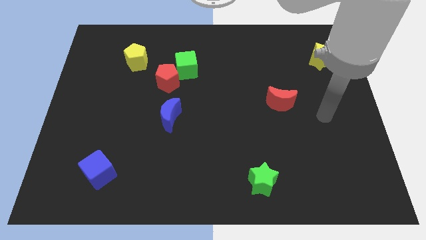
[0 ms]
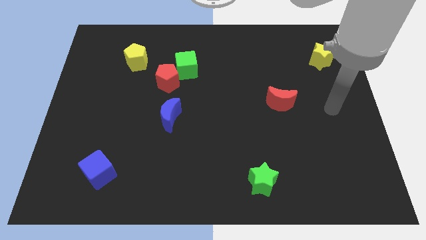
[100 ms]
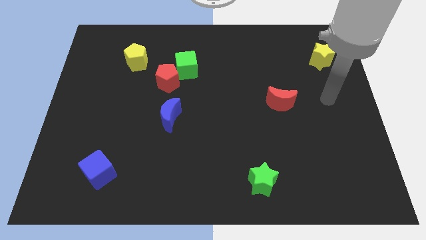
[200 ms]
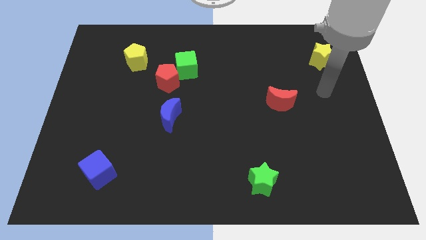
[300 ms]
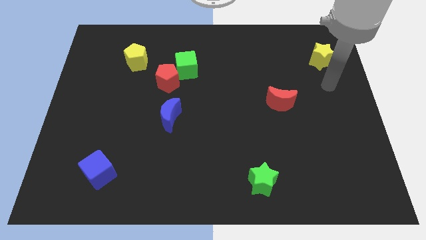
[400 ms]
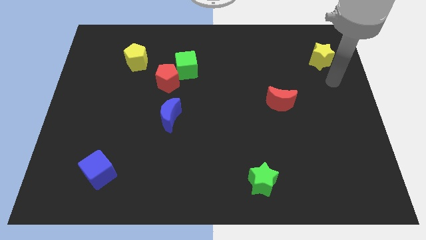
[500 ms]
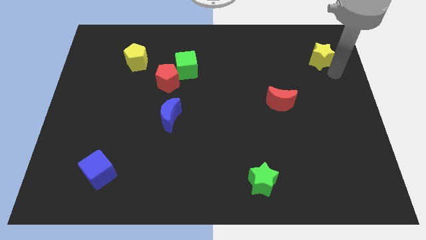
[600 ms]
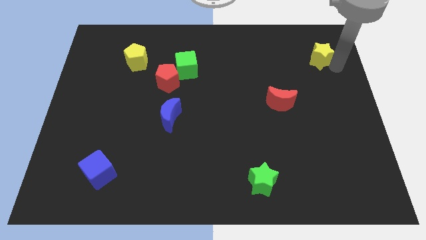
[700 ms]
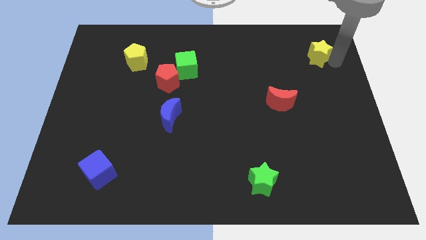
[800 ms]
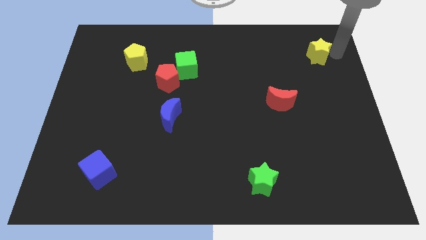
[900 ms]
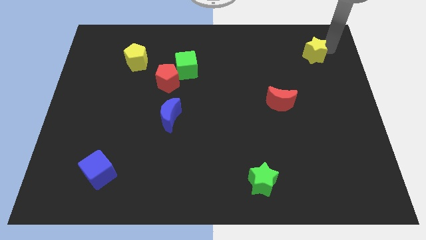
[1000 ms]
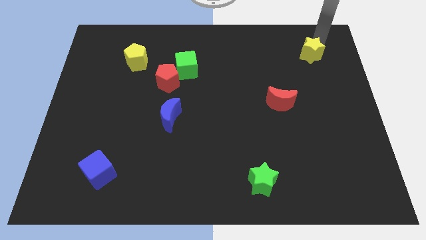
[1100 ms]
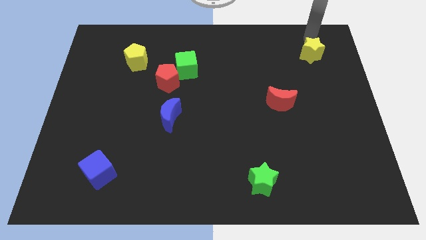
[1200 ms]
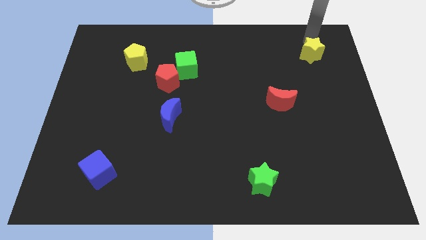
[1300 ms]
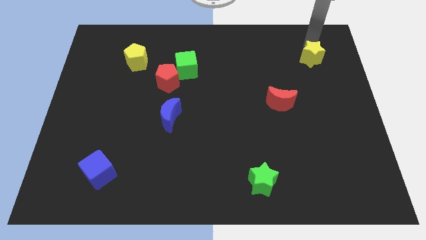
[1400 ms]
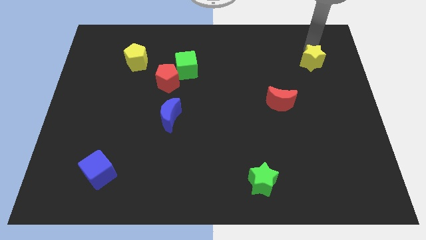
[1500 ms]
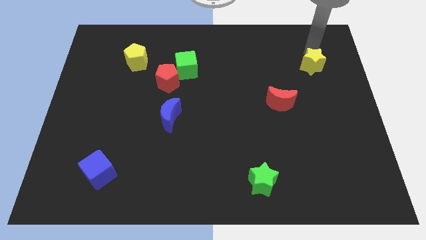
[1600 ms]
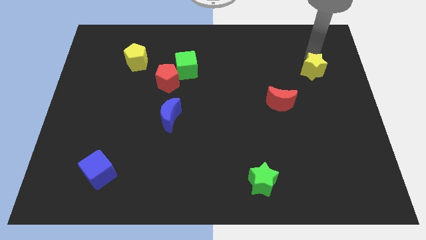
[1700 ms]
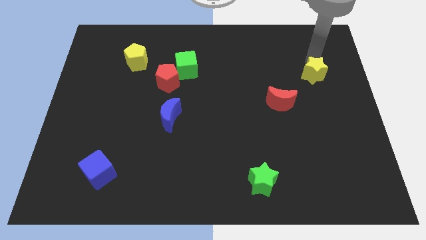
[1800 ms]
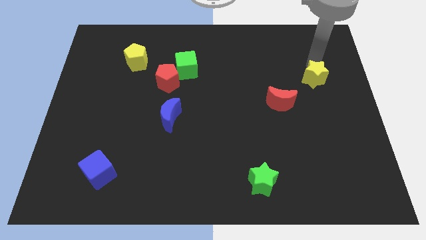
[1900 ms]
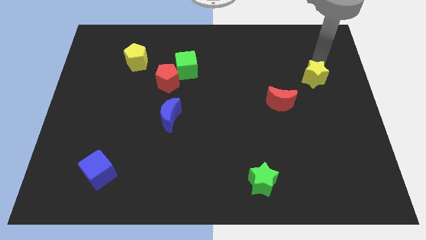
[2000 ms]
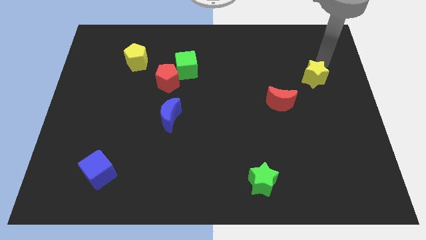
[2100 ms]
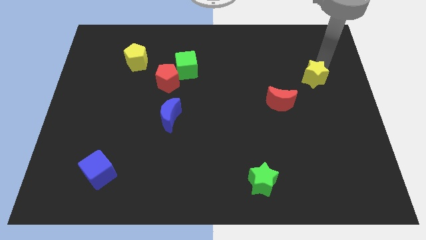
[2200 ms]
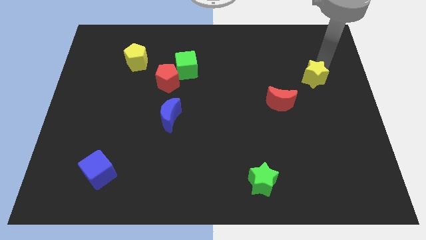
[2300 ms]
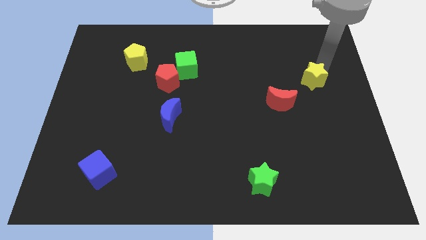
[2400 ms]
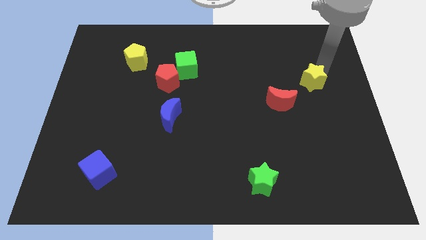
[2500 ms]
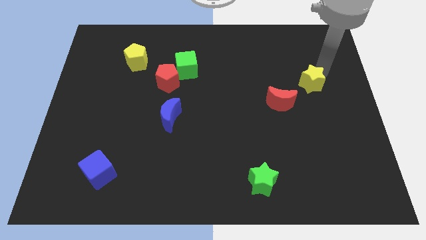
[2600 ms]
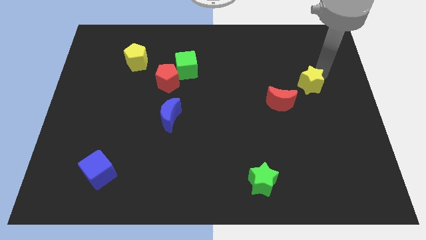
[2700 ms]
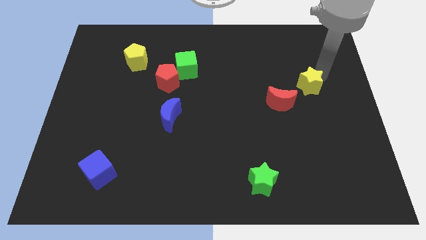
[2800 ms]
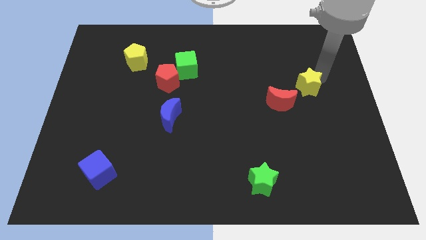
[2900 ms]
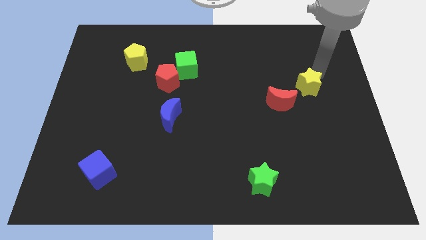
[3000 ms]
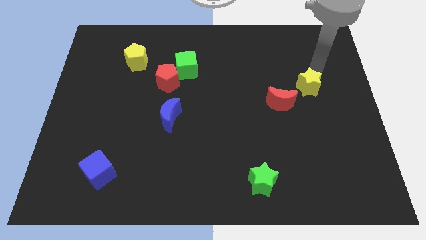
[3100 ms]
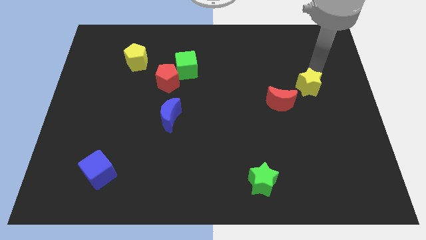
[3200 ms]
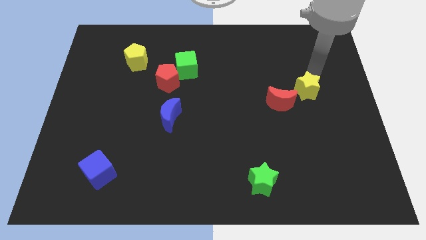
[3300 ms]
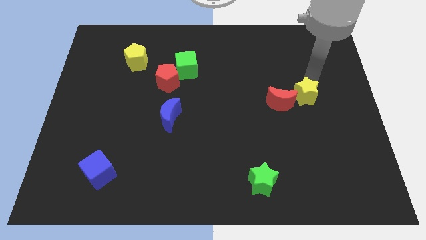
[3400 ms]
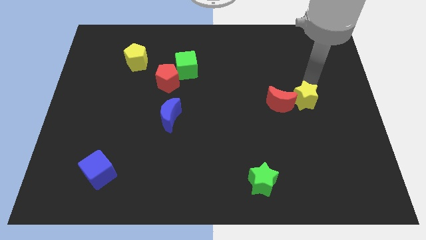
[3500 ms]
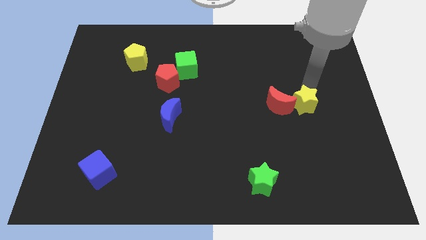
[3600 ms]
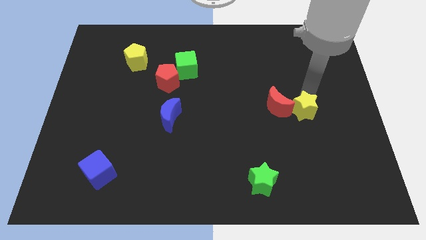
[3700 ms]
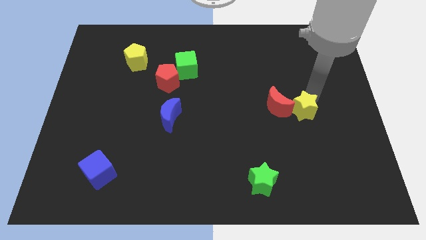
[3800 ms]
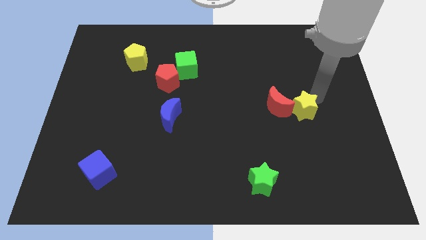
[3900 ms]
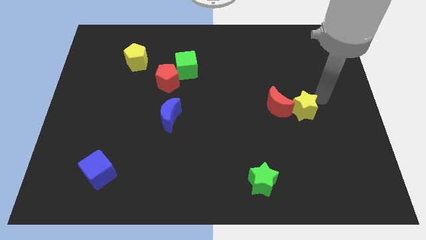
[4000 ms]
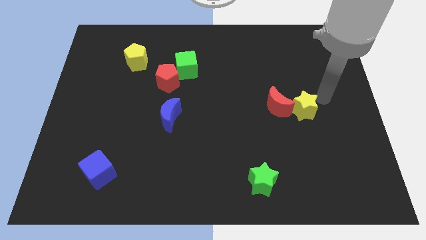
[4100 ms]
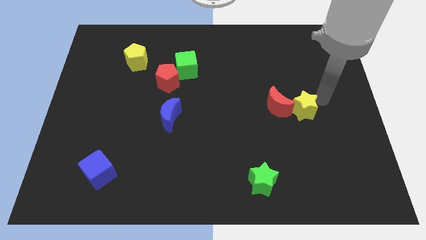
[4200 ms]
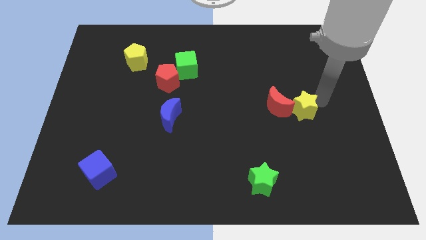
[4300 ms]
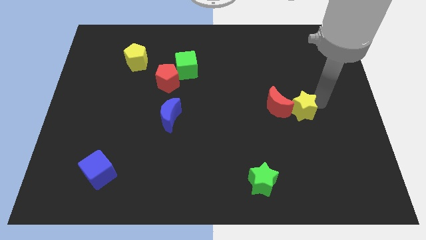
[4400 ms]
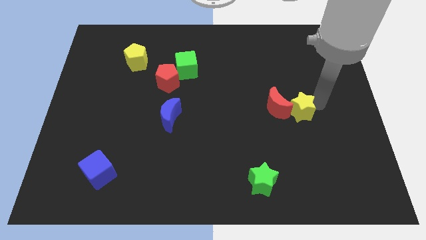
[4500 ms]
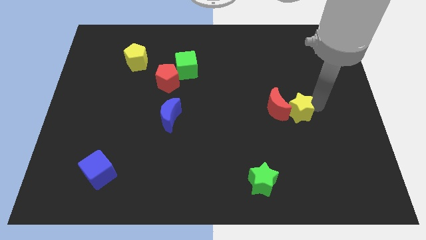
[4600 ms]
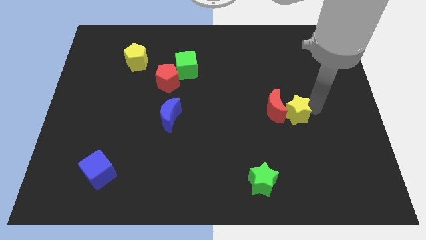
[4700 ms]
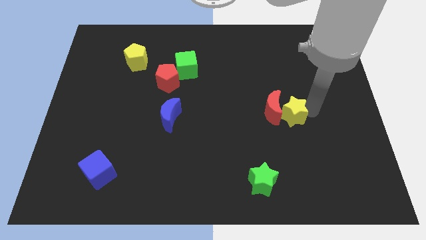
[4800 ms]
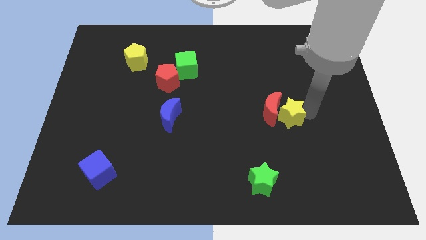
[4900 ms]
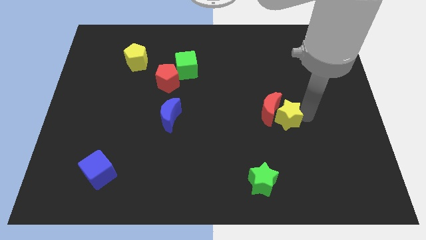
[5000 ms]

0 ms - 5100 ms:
push the yellow star to the bottom side of the red moon

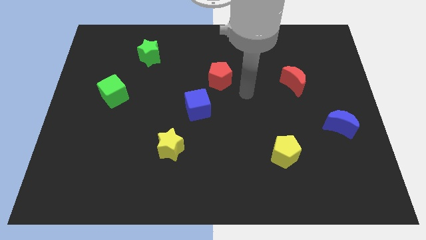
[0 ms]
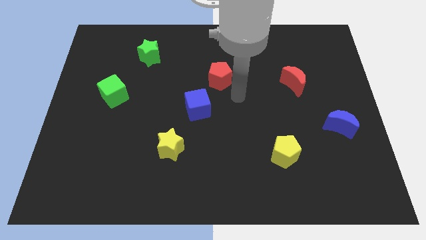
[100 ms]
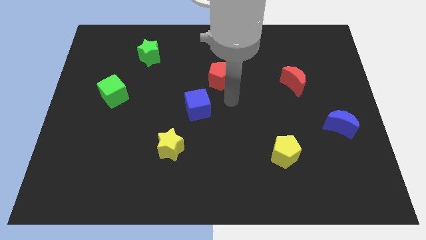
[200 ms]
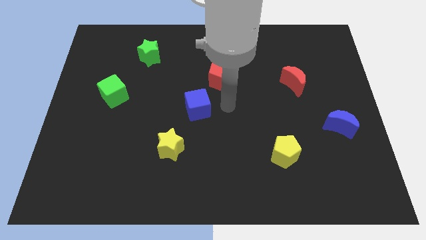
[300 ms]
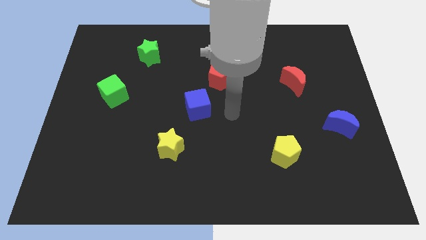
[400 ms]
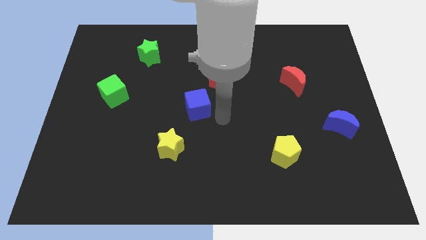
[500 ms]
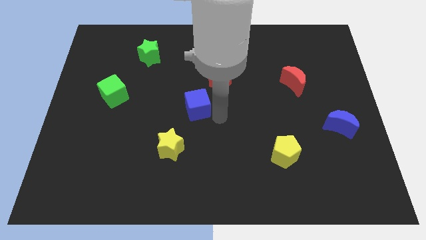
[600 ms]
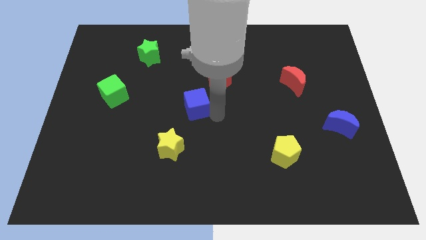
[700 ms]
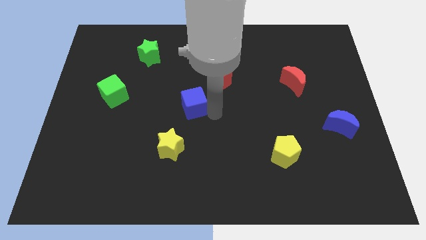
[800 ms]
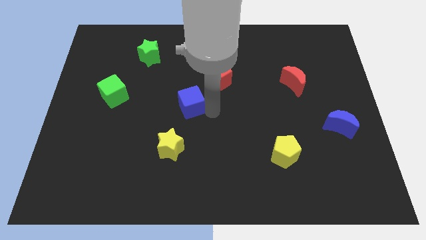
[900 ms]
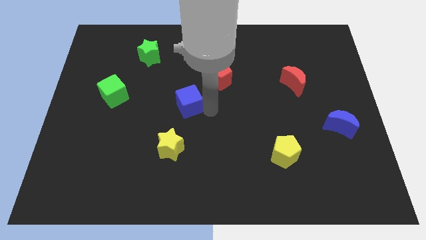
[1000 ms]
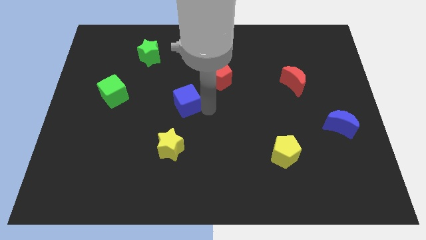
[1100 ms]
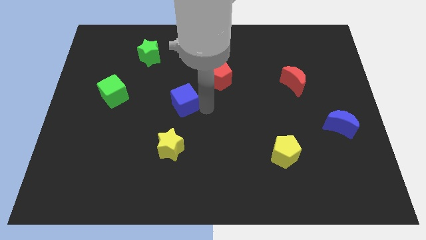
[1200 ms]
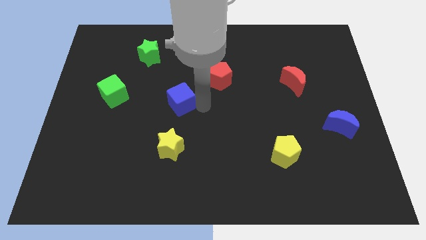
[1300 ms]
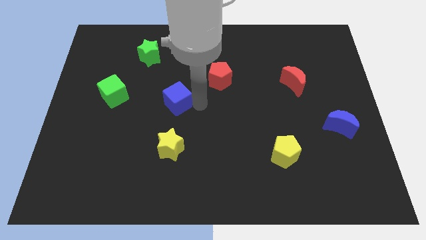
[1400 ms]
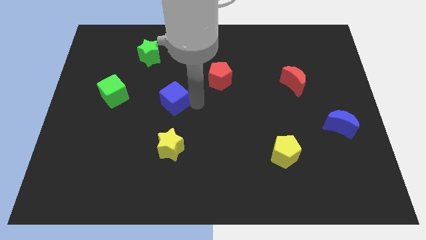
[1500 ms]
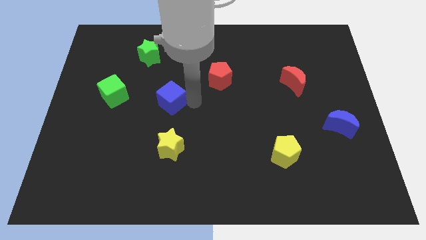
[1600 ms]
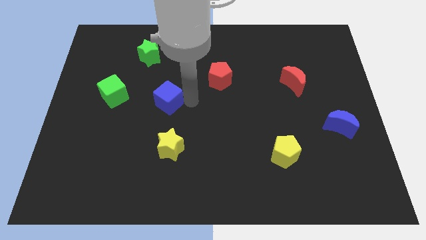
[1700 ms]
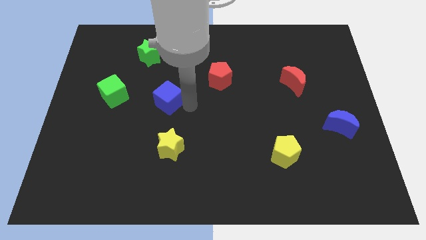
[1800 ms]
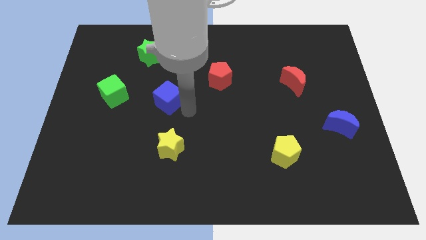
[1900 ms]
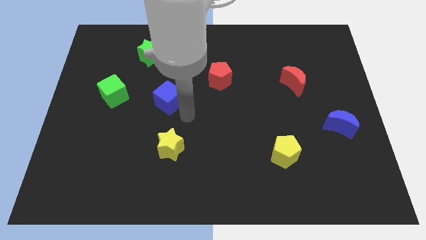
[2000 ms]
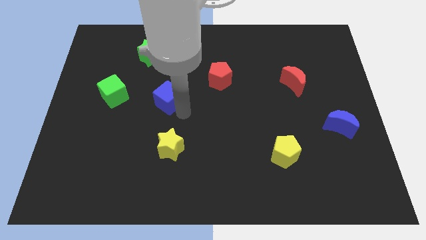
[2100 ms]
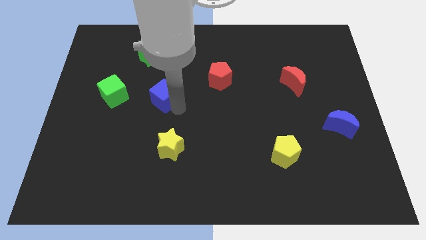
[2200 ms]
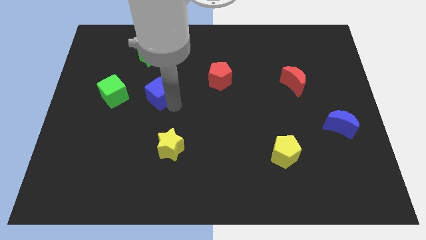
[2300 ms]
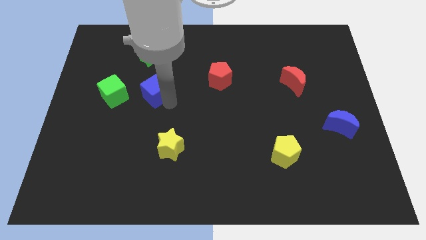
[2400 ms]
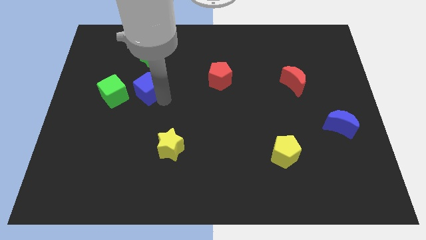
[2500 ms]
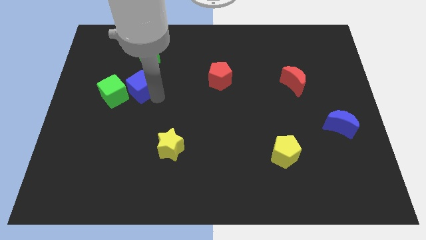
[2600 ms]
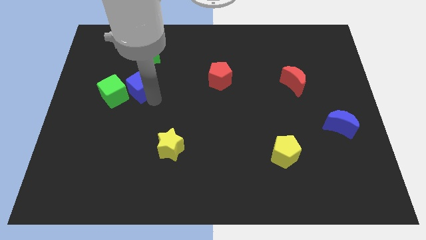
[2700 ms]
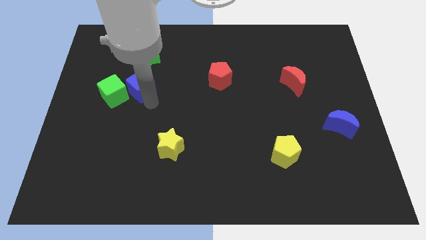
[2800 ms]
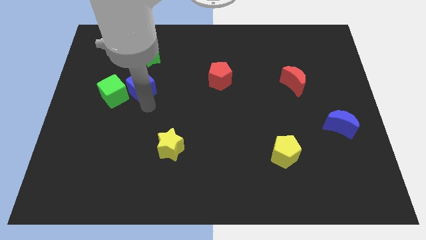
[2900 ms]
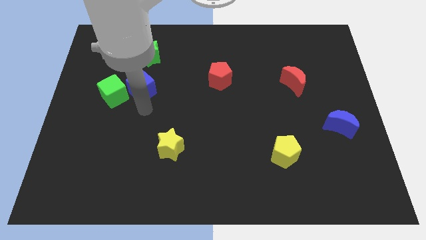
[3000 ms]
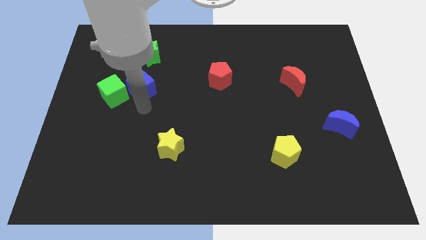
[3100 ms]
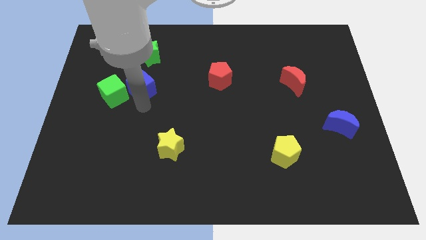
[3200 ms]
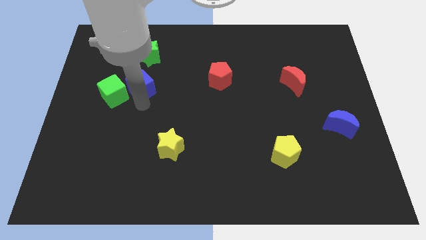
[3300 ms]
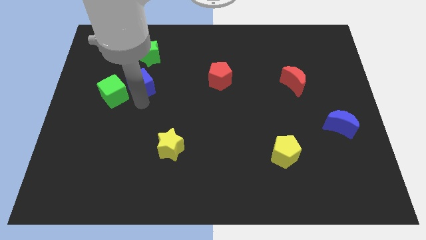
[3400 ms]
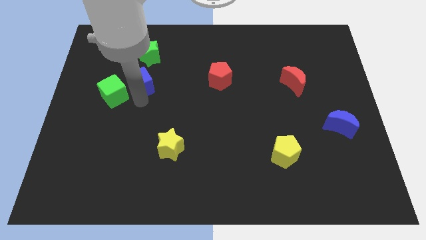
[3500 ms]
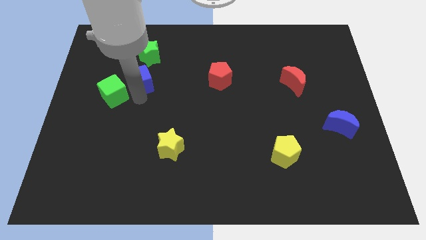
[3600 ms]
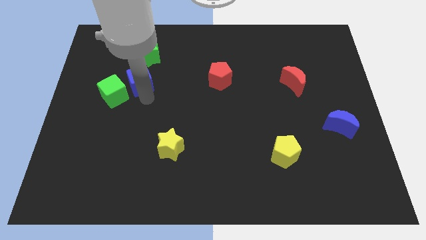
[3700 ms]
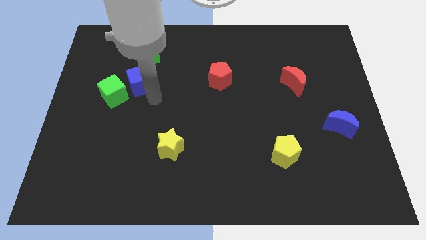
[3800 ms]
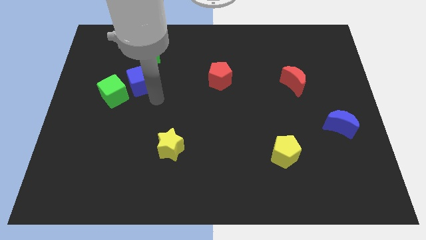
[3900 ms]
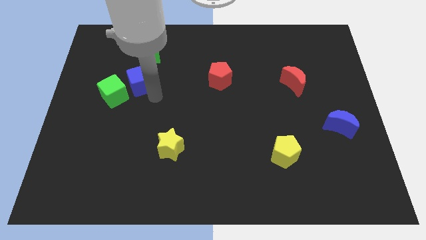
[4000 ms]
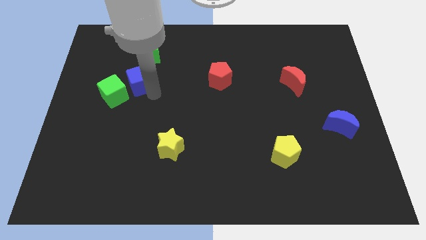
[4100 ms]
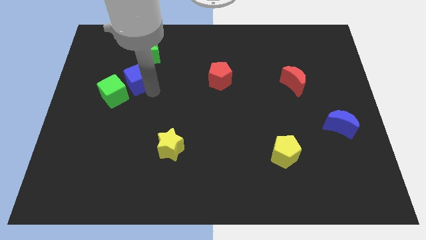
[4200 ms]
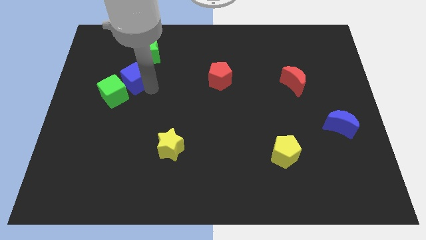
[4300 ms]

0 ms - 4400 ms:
push the blue cube to the top side of the green cube
